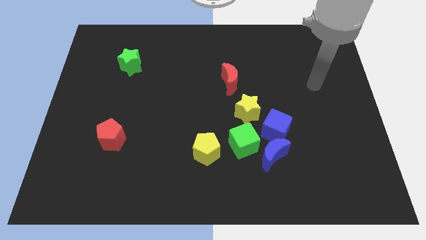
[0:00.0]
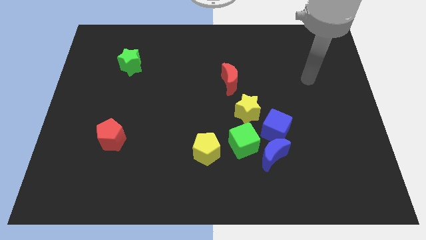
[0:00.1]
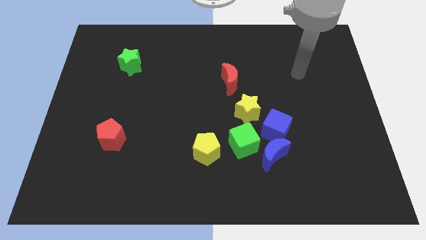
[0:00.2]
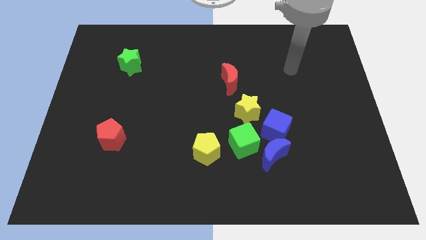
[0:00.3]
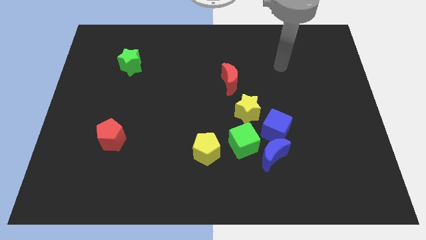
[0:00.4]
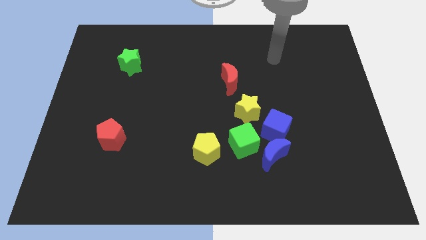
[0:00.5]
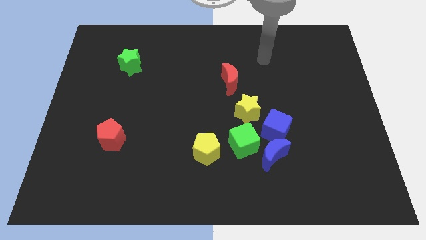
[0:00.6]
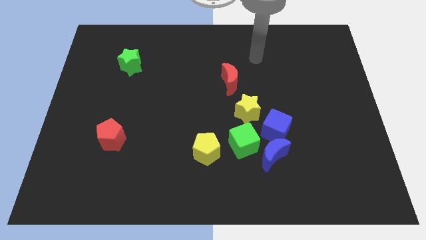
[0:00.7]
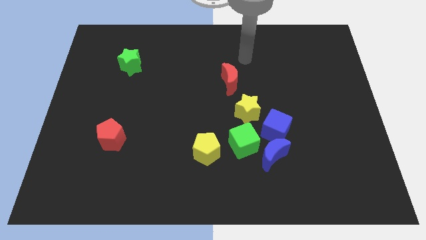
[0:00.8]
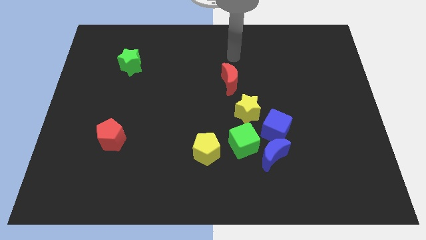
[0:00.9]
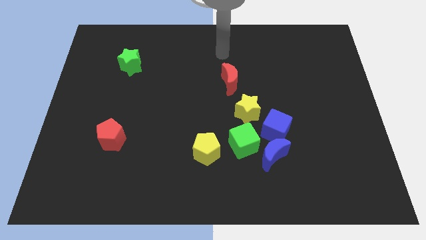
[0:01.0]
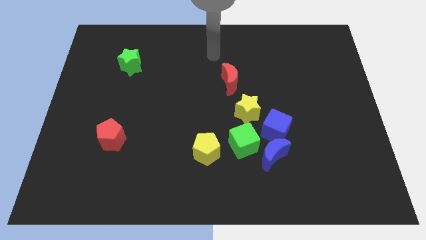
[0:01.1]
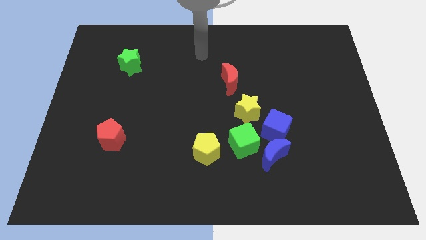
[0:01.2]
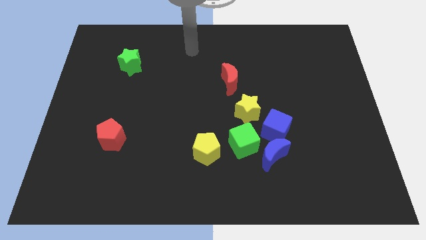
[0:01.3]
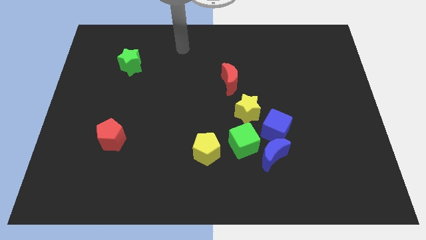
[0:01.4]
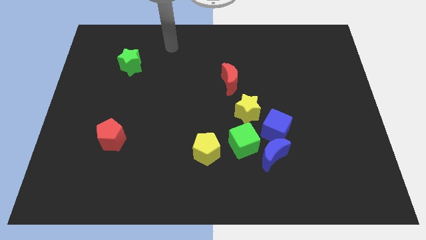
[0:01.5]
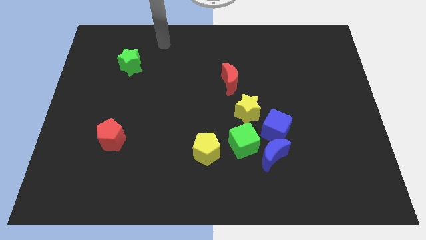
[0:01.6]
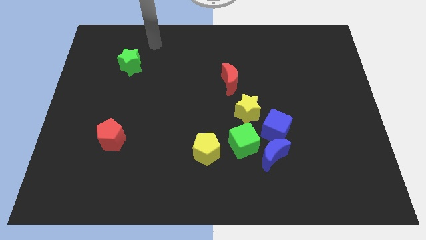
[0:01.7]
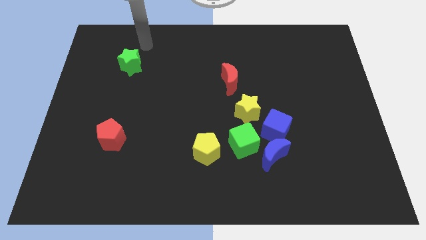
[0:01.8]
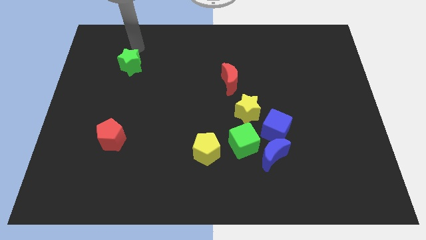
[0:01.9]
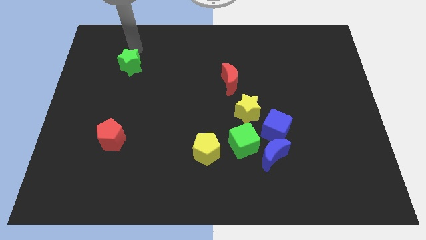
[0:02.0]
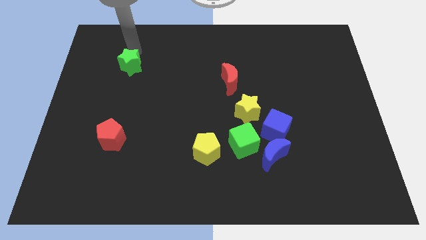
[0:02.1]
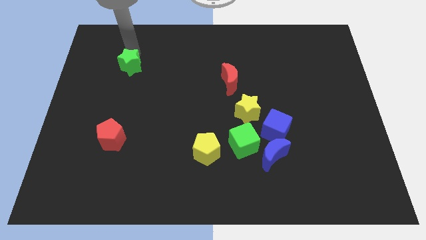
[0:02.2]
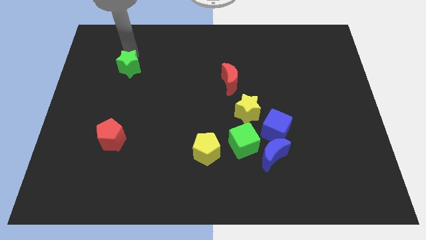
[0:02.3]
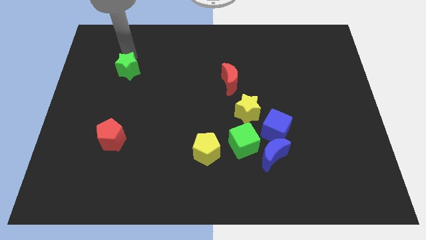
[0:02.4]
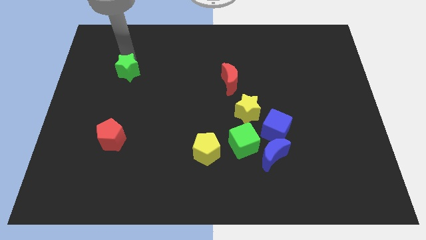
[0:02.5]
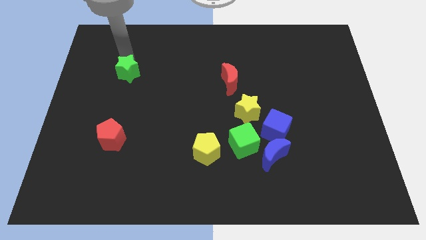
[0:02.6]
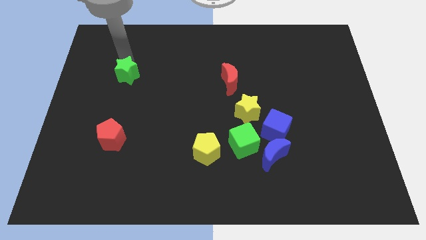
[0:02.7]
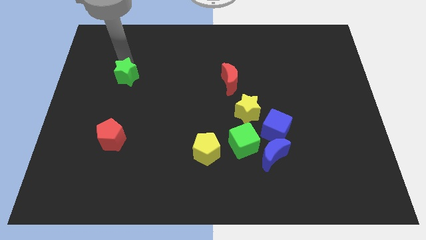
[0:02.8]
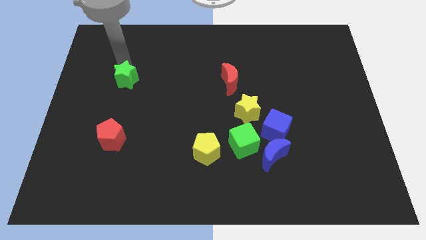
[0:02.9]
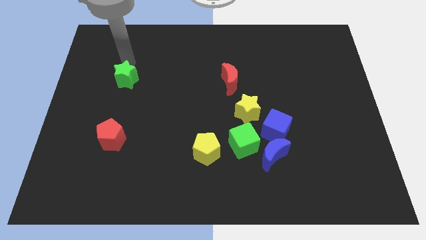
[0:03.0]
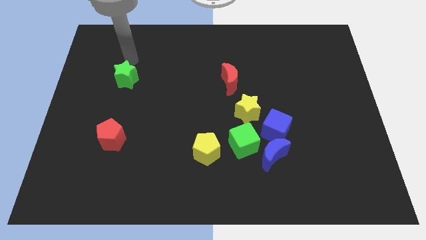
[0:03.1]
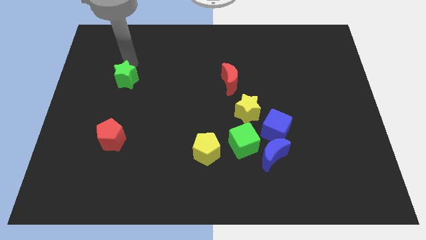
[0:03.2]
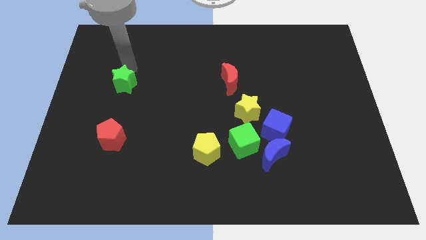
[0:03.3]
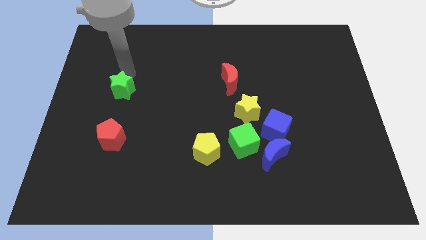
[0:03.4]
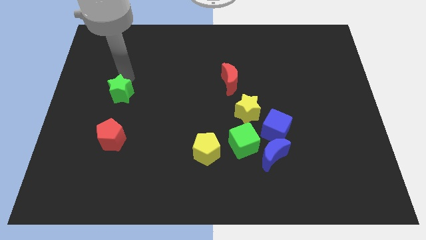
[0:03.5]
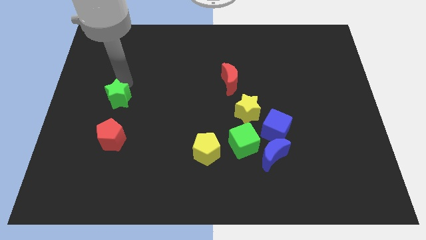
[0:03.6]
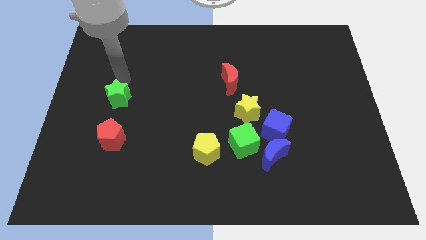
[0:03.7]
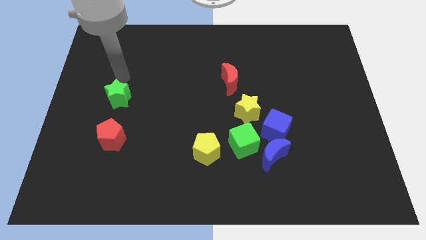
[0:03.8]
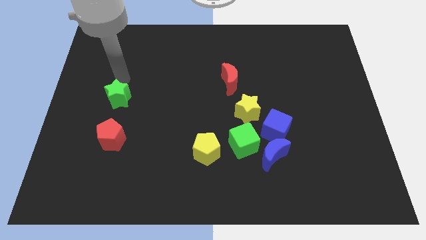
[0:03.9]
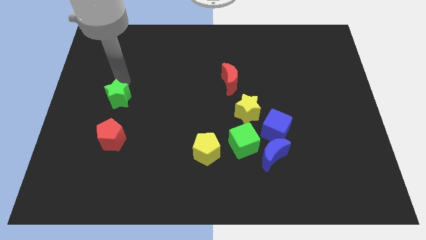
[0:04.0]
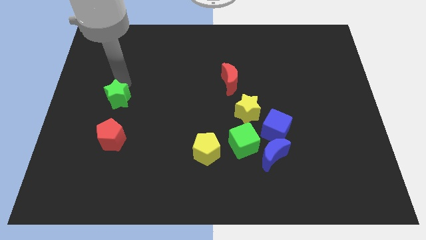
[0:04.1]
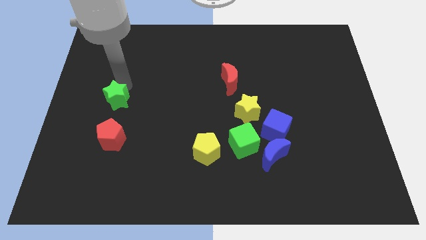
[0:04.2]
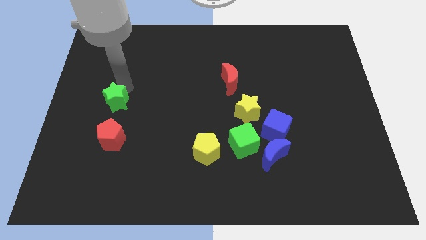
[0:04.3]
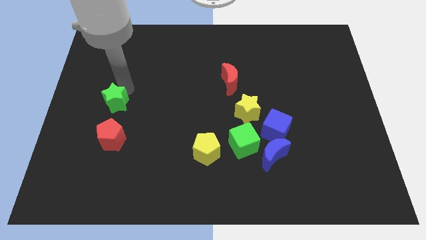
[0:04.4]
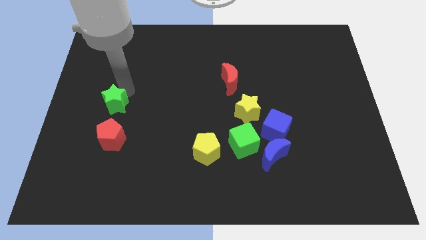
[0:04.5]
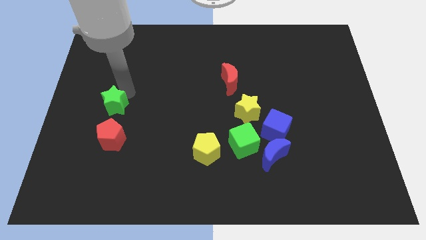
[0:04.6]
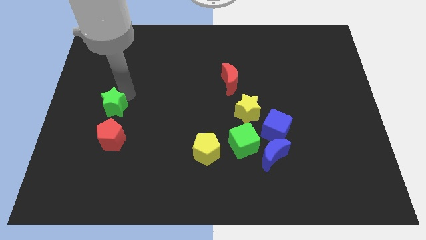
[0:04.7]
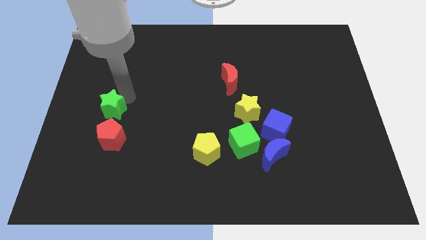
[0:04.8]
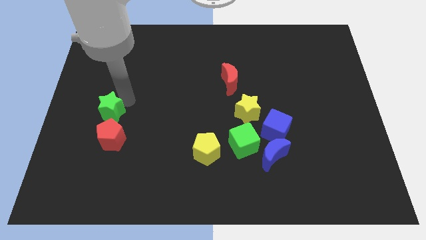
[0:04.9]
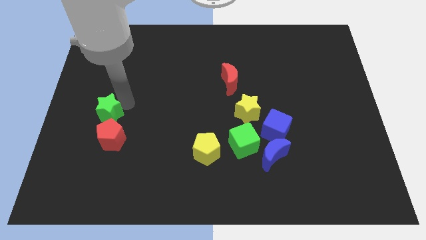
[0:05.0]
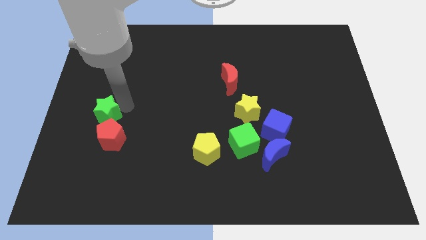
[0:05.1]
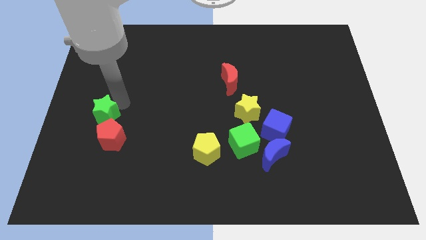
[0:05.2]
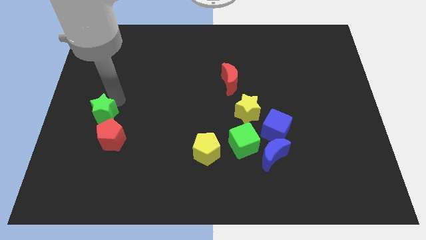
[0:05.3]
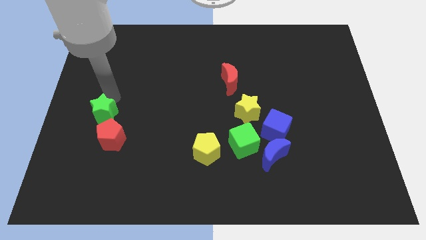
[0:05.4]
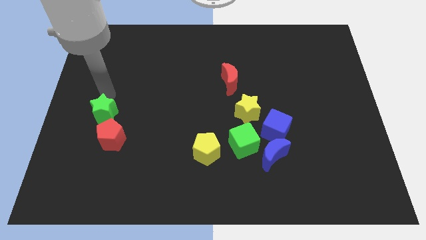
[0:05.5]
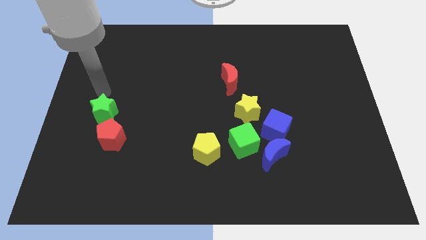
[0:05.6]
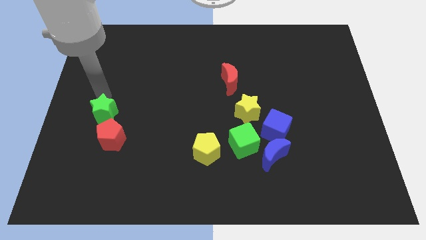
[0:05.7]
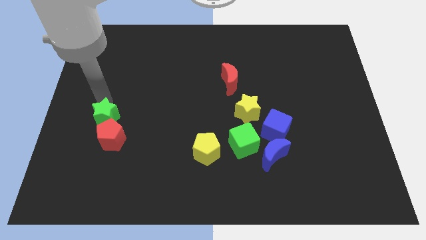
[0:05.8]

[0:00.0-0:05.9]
push the green star close to the red pentagon

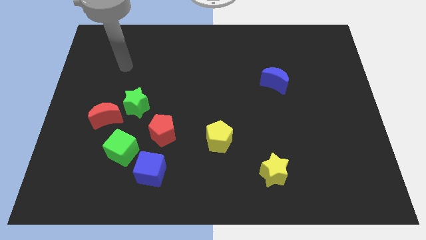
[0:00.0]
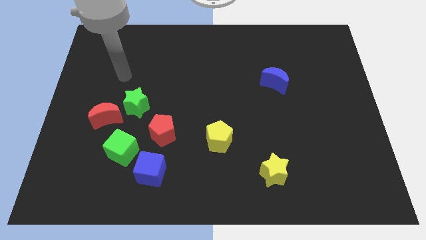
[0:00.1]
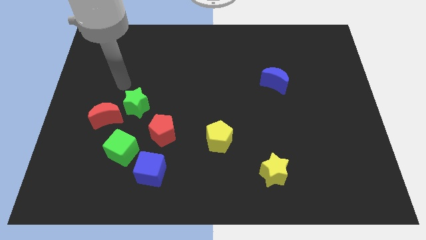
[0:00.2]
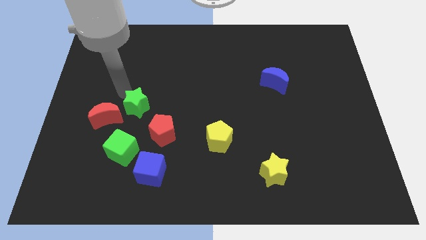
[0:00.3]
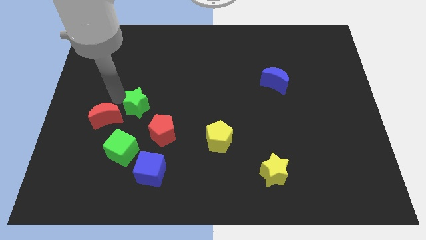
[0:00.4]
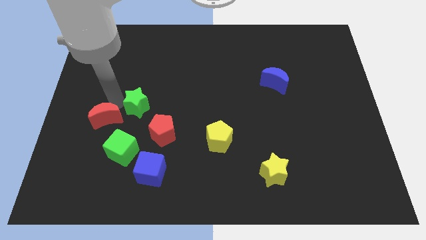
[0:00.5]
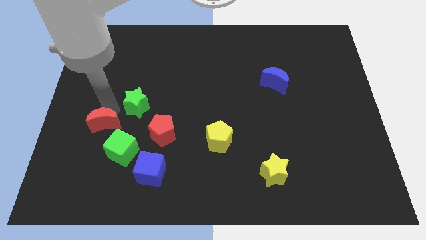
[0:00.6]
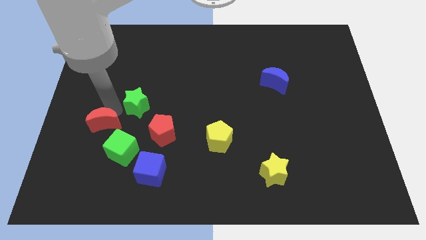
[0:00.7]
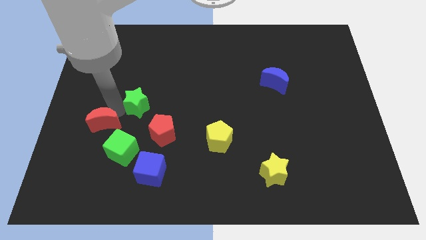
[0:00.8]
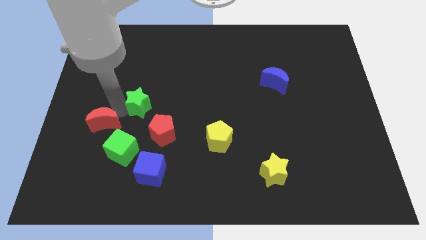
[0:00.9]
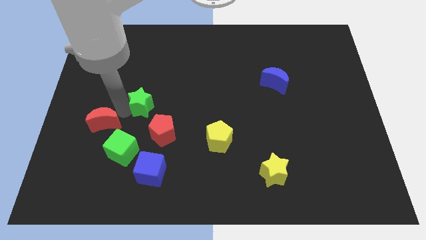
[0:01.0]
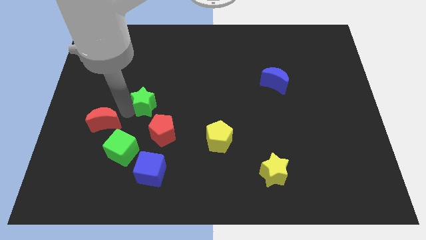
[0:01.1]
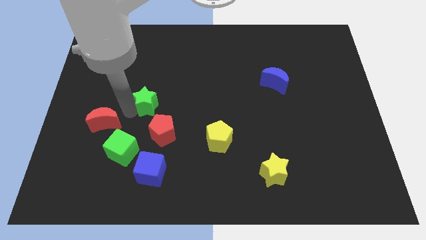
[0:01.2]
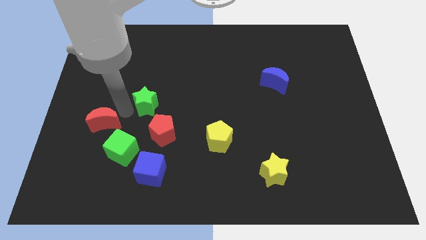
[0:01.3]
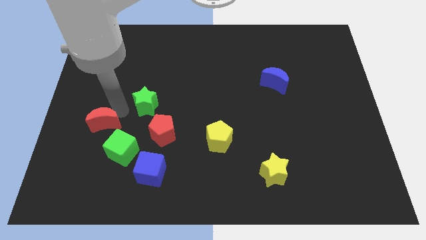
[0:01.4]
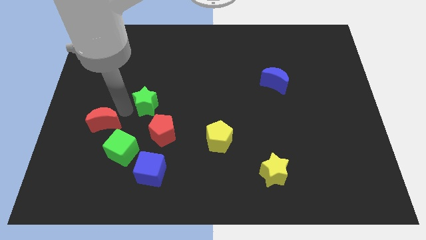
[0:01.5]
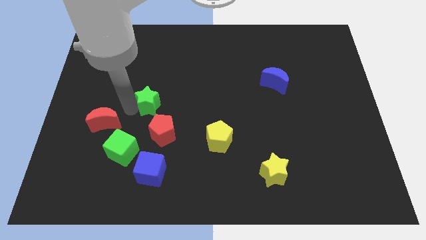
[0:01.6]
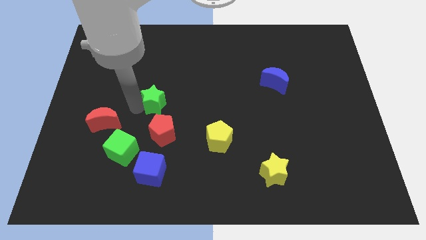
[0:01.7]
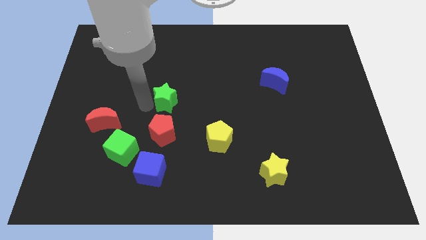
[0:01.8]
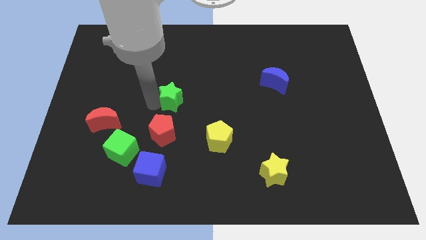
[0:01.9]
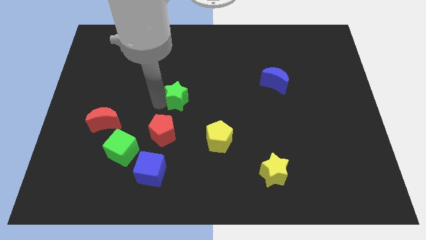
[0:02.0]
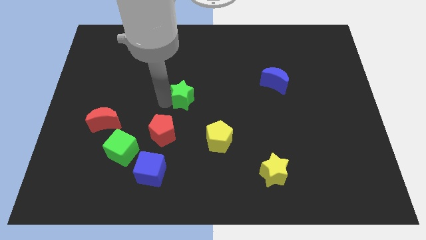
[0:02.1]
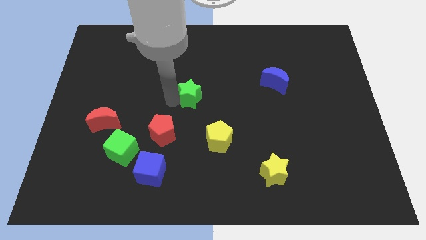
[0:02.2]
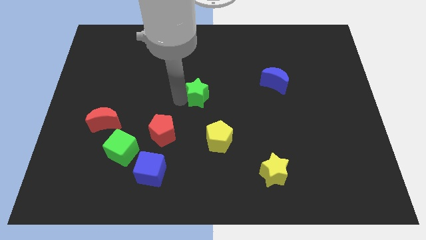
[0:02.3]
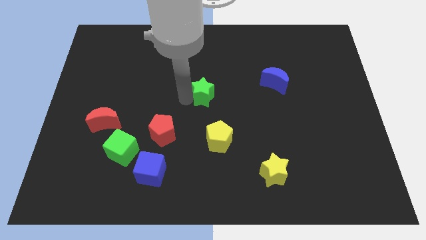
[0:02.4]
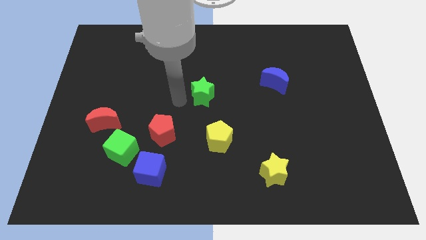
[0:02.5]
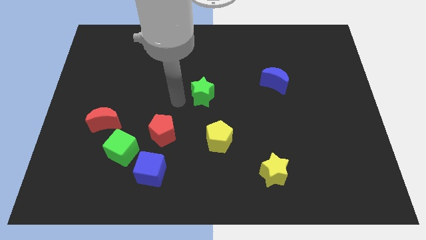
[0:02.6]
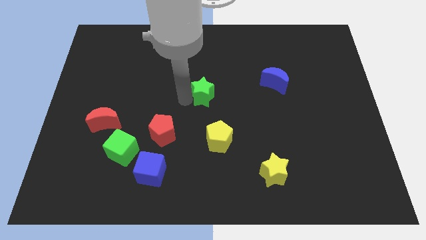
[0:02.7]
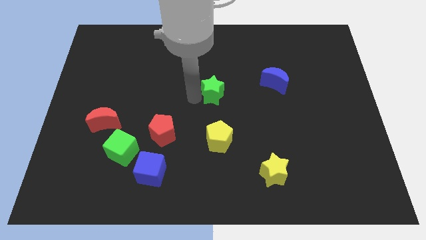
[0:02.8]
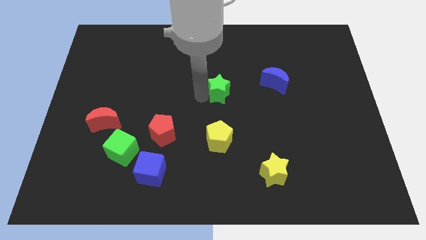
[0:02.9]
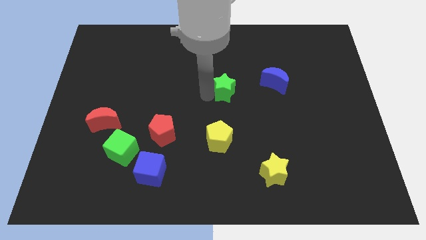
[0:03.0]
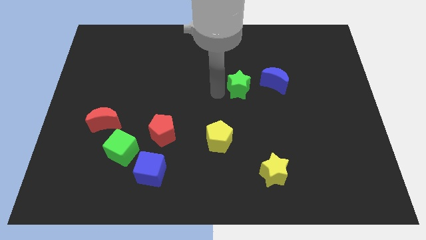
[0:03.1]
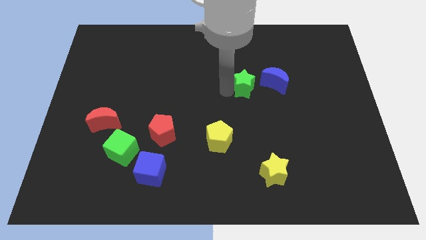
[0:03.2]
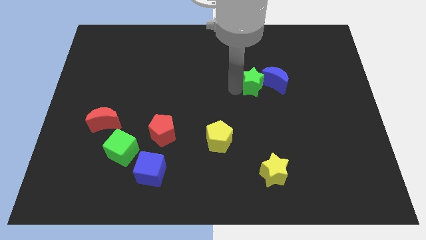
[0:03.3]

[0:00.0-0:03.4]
slide the green star to the blue moon
